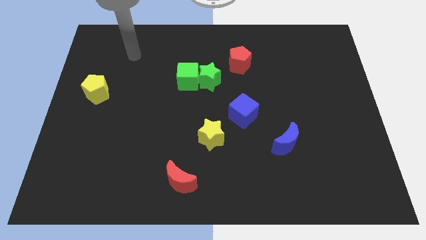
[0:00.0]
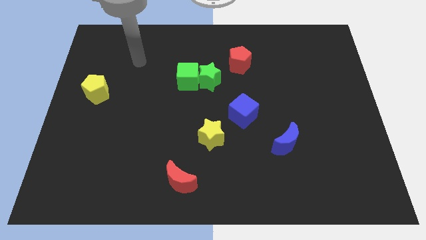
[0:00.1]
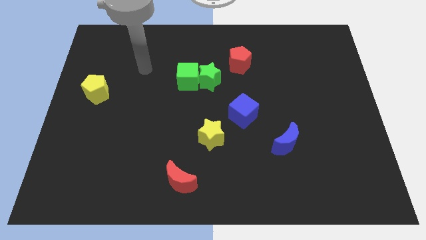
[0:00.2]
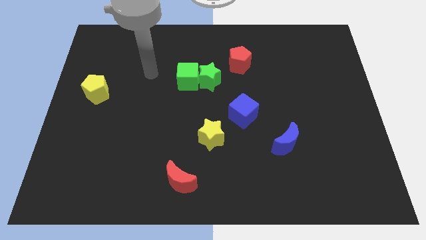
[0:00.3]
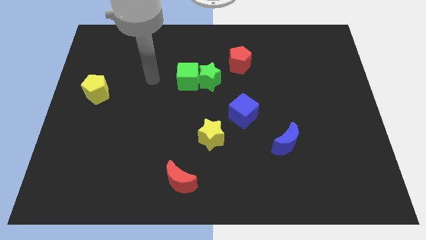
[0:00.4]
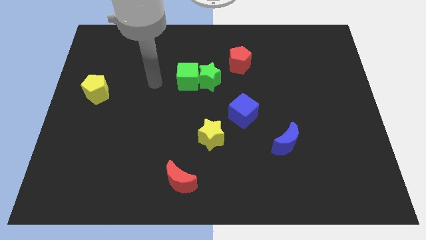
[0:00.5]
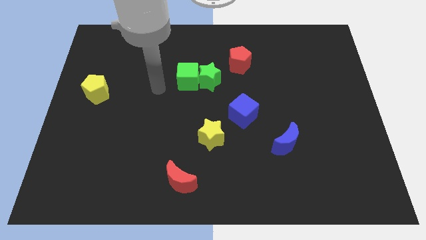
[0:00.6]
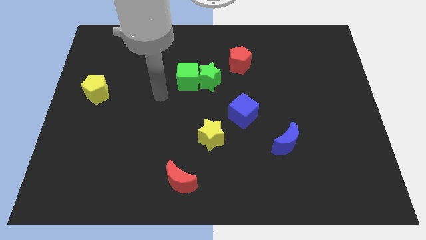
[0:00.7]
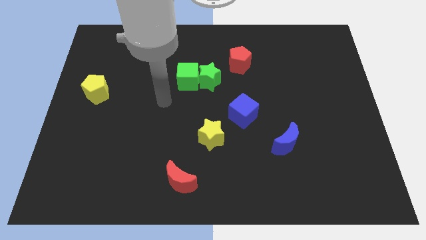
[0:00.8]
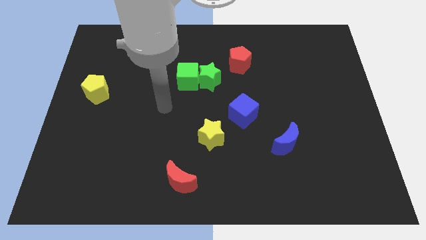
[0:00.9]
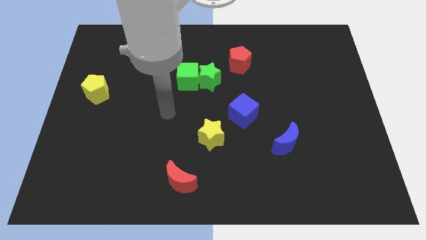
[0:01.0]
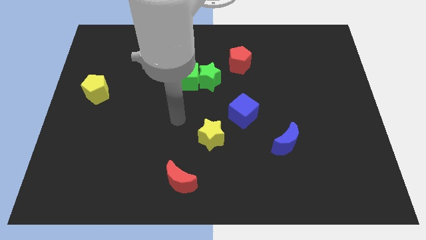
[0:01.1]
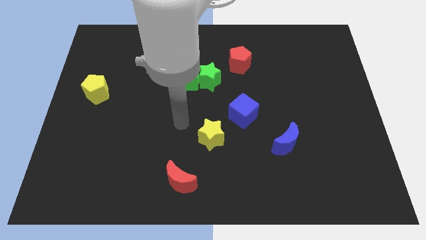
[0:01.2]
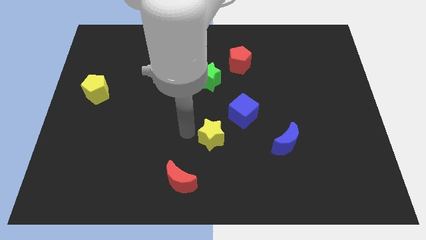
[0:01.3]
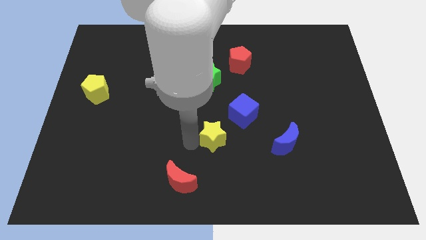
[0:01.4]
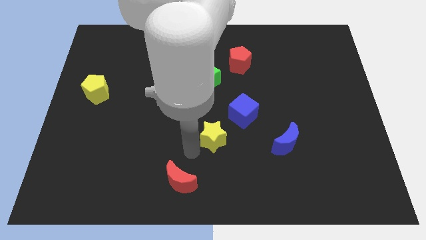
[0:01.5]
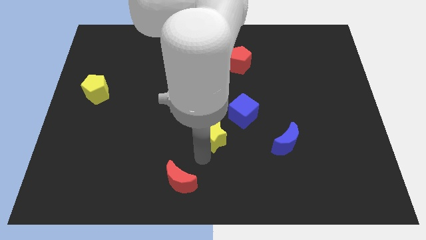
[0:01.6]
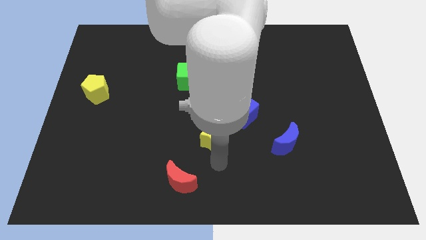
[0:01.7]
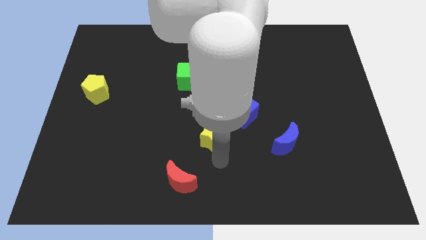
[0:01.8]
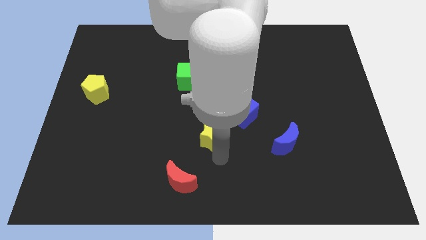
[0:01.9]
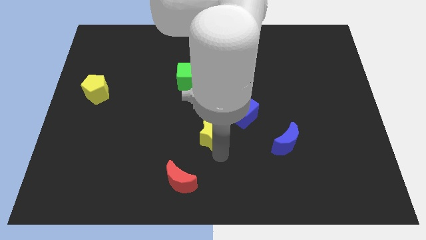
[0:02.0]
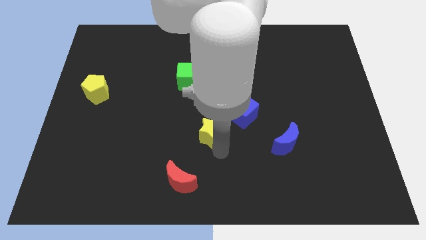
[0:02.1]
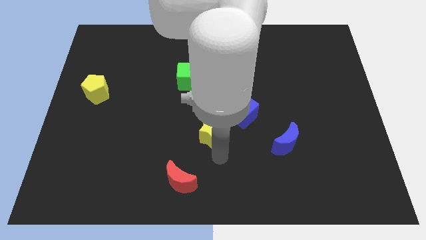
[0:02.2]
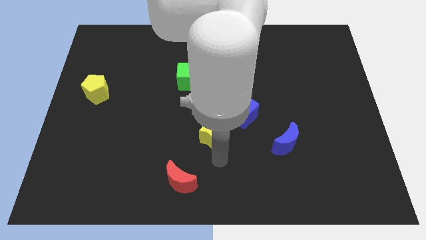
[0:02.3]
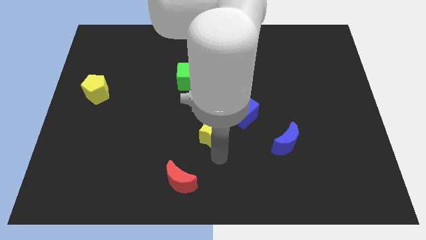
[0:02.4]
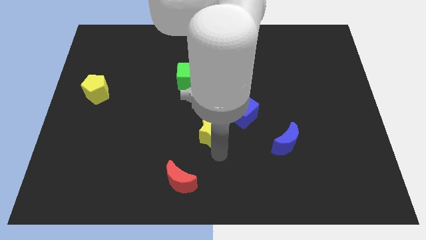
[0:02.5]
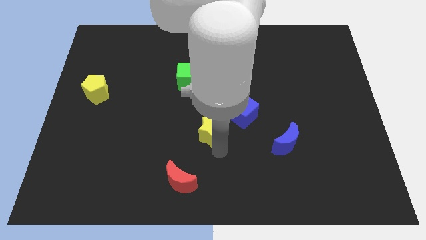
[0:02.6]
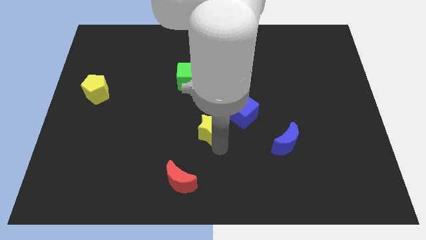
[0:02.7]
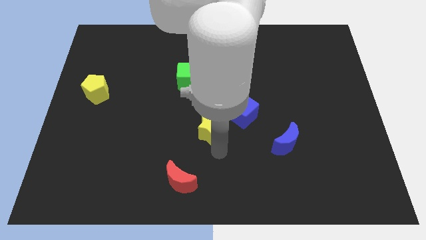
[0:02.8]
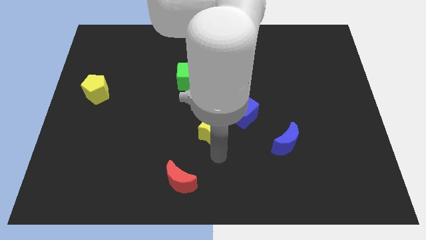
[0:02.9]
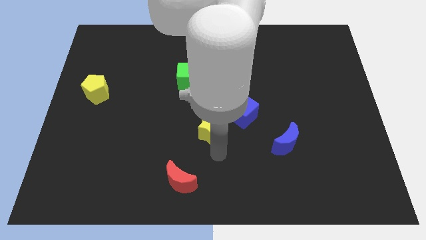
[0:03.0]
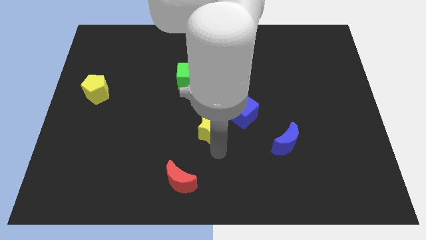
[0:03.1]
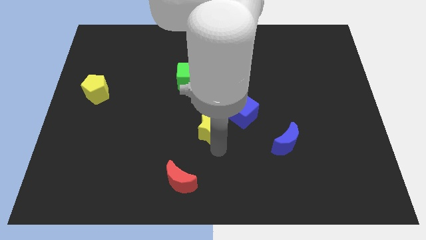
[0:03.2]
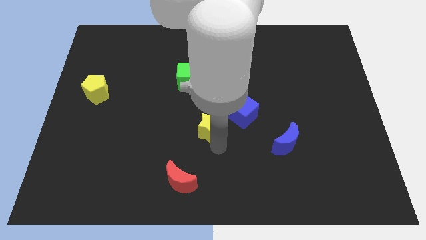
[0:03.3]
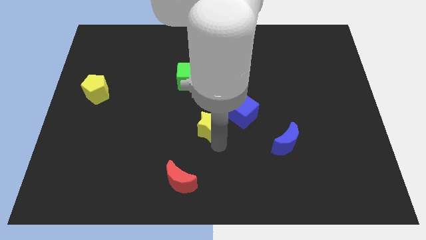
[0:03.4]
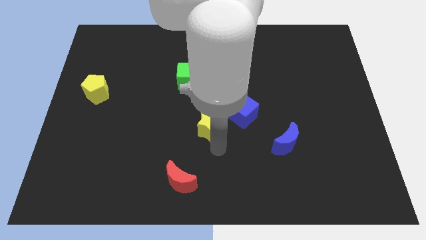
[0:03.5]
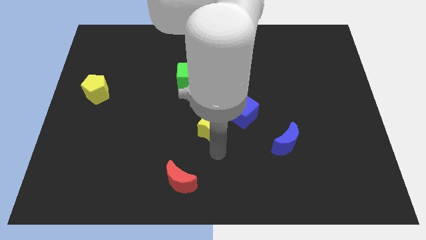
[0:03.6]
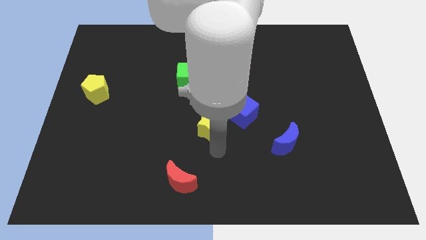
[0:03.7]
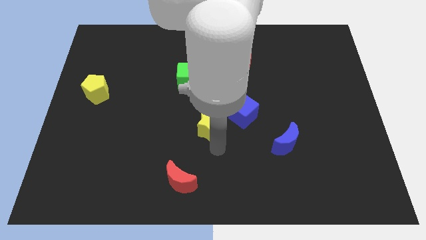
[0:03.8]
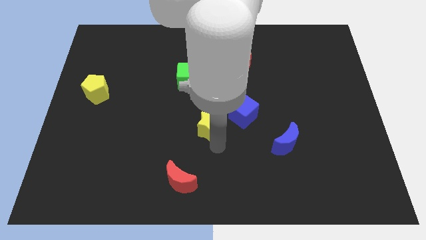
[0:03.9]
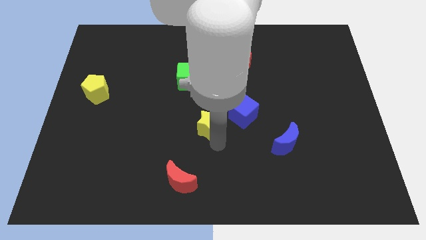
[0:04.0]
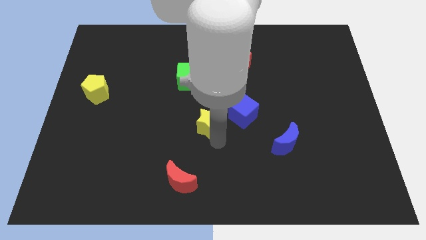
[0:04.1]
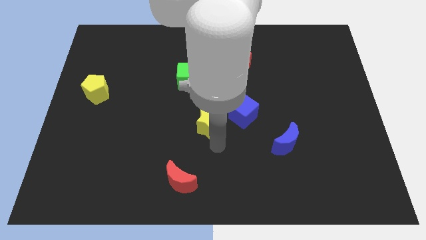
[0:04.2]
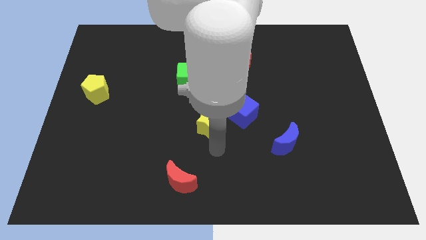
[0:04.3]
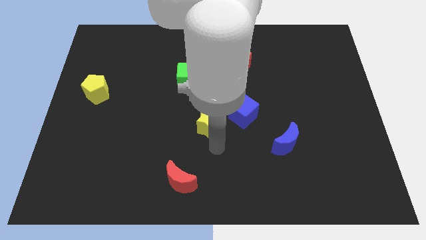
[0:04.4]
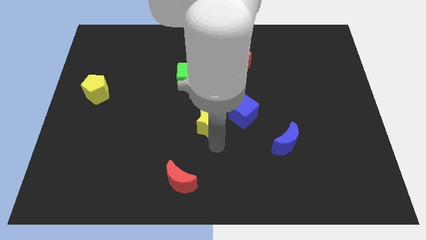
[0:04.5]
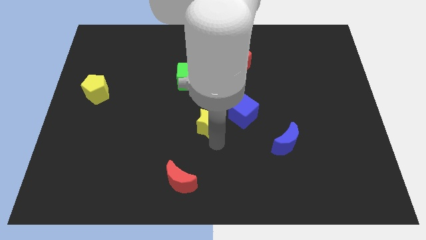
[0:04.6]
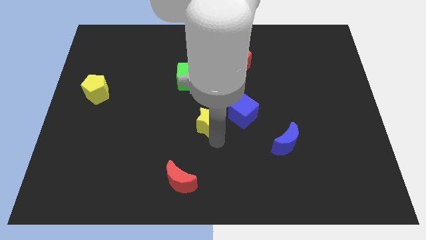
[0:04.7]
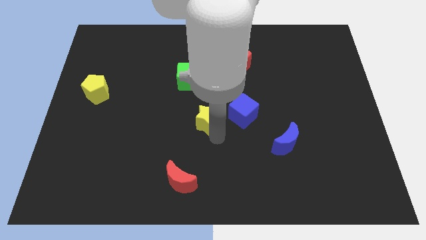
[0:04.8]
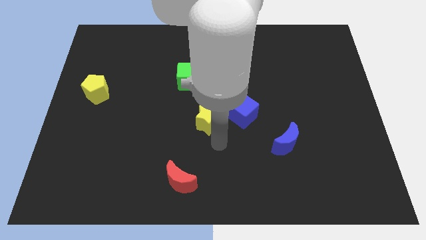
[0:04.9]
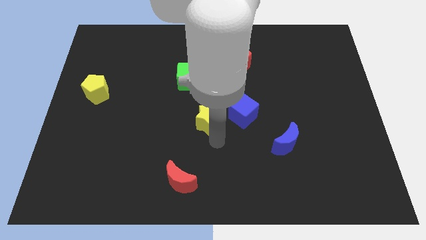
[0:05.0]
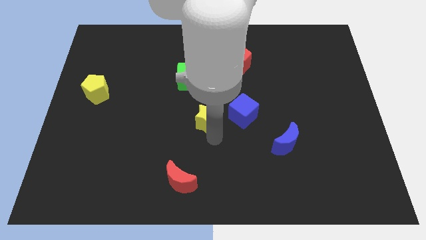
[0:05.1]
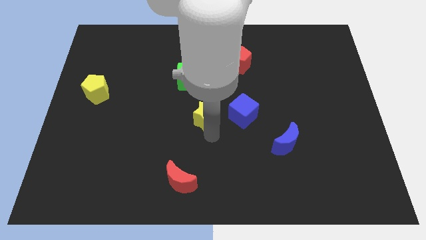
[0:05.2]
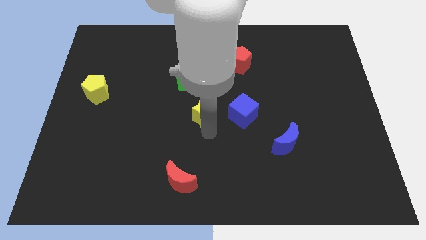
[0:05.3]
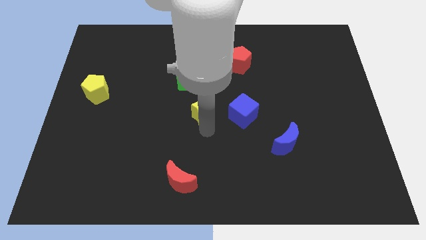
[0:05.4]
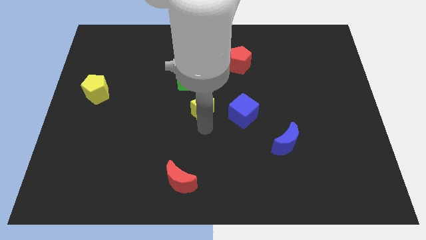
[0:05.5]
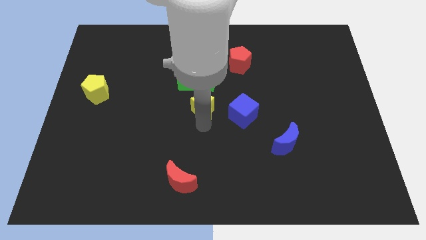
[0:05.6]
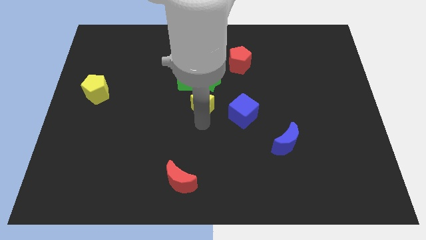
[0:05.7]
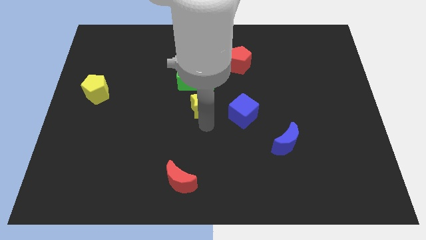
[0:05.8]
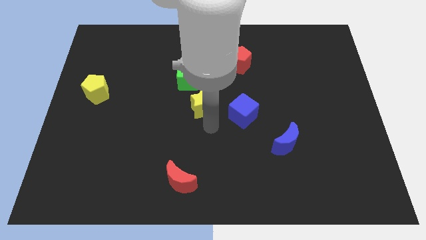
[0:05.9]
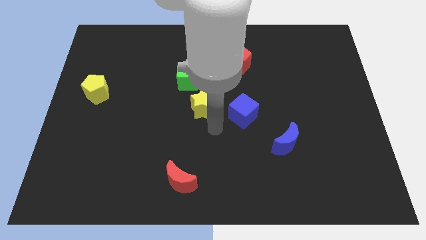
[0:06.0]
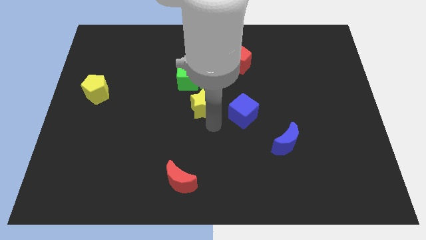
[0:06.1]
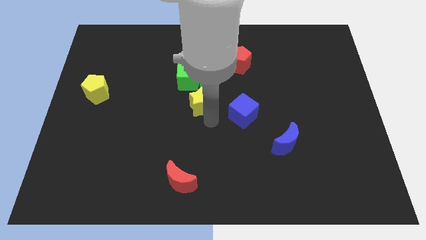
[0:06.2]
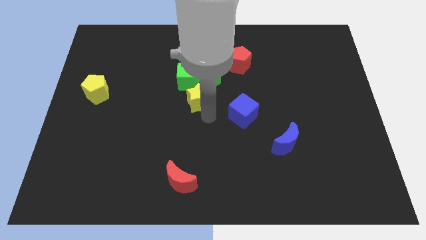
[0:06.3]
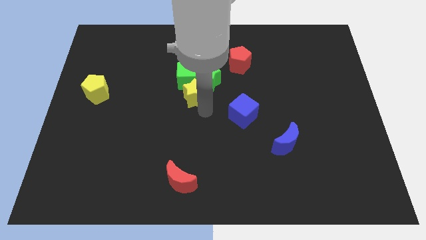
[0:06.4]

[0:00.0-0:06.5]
slide the yellow star to the green cube

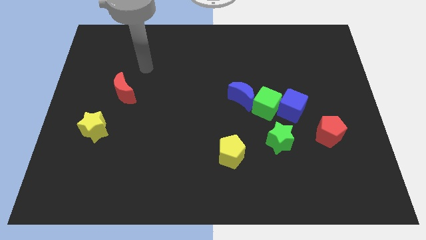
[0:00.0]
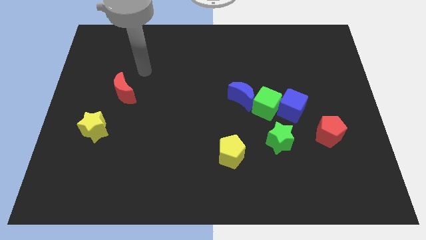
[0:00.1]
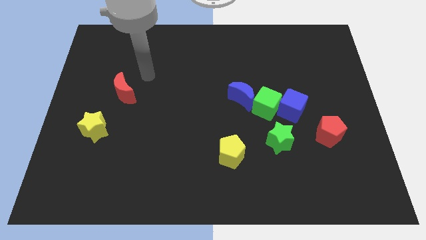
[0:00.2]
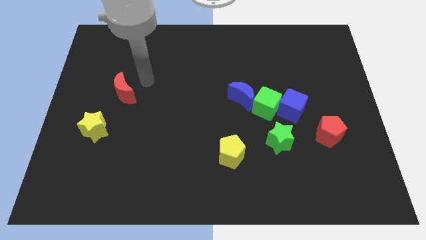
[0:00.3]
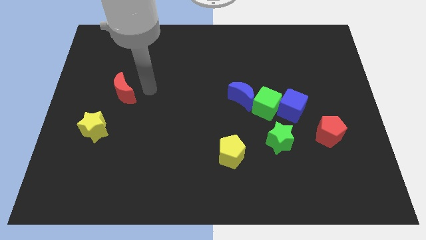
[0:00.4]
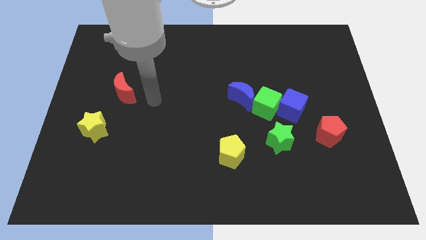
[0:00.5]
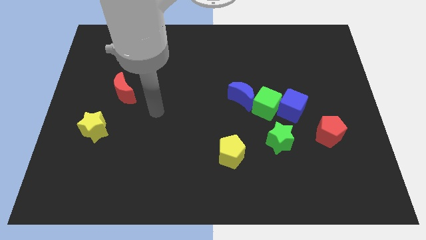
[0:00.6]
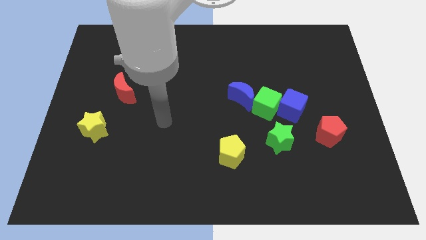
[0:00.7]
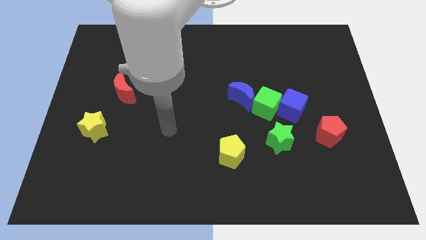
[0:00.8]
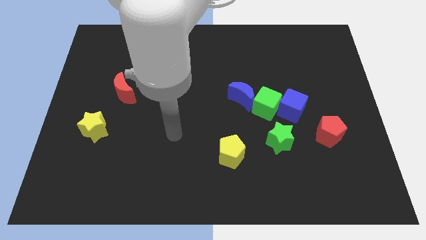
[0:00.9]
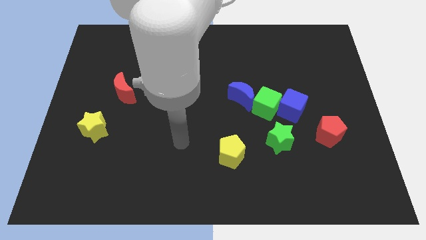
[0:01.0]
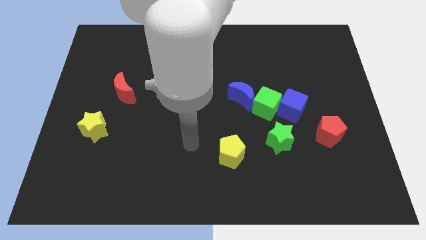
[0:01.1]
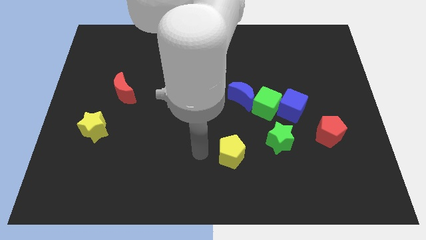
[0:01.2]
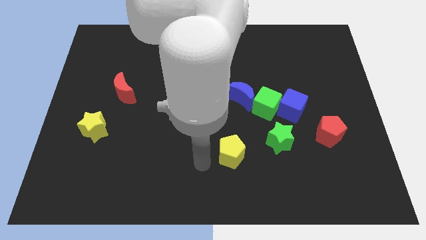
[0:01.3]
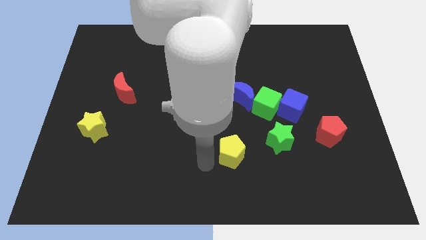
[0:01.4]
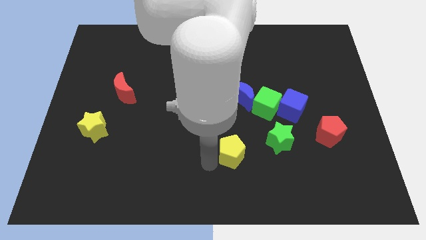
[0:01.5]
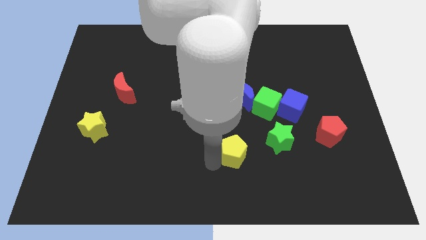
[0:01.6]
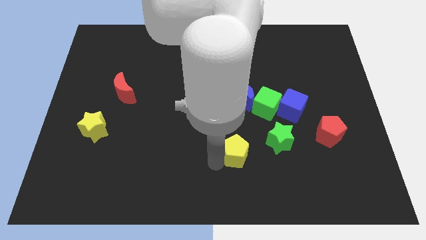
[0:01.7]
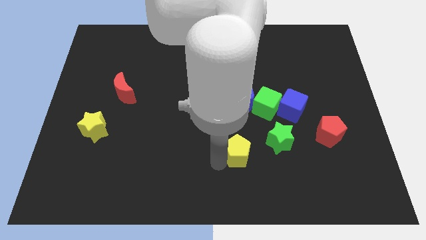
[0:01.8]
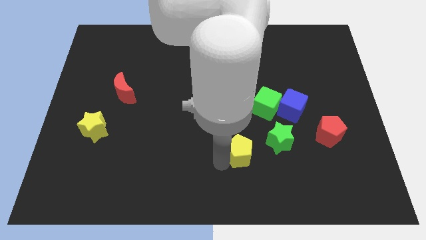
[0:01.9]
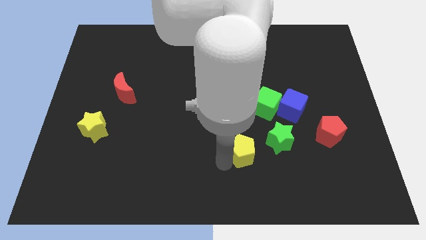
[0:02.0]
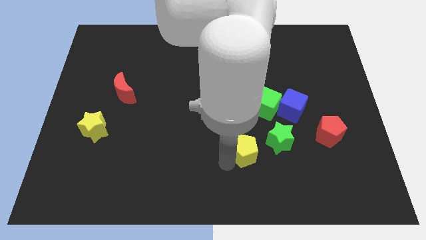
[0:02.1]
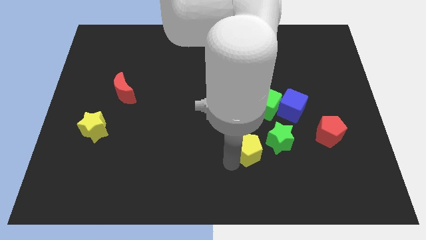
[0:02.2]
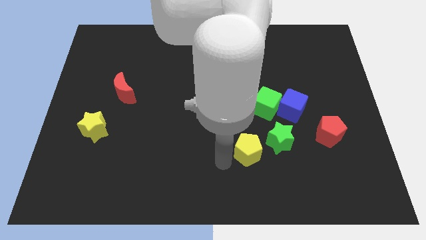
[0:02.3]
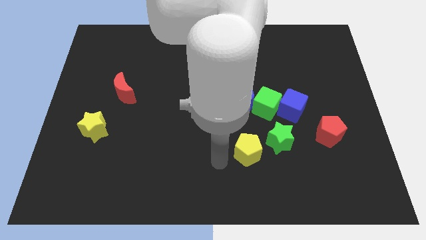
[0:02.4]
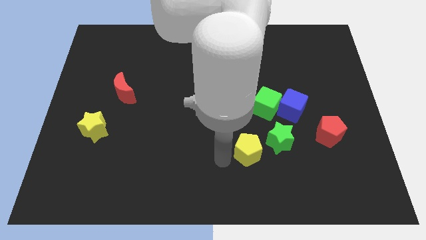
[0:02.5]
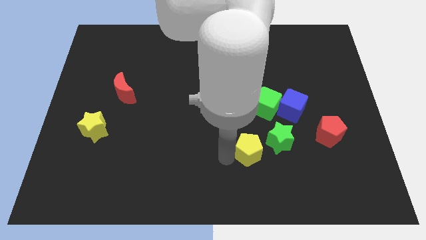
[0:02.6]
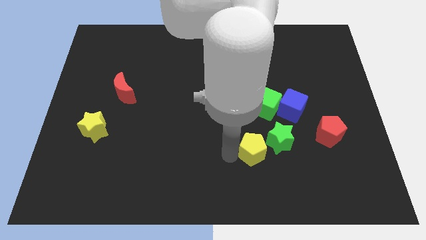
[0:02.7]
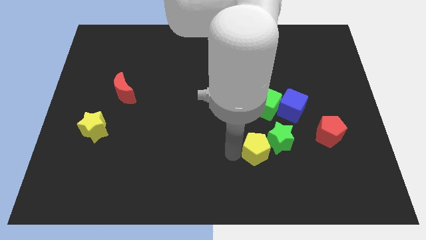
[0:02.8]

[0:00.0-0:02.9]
push the yellow pentagon towards the green star
